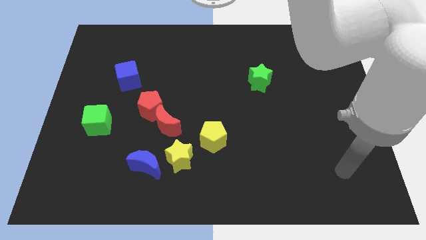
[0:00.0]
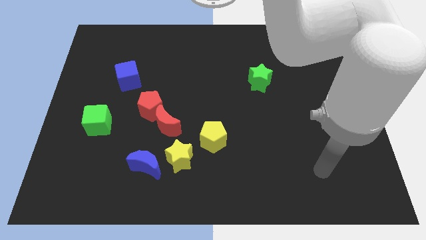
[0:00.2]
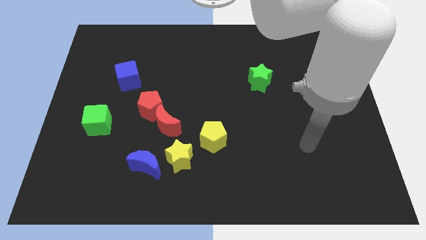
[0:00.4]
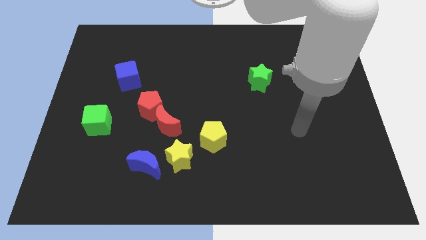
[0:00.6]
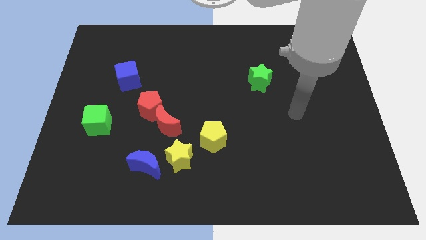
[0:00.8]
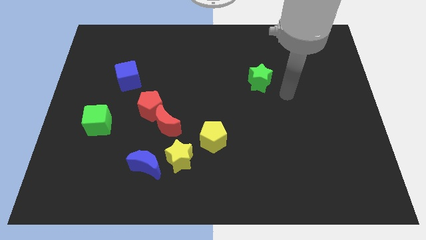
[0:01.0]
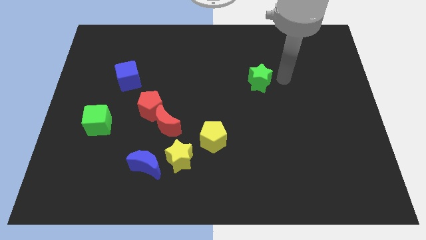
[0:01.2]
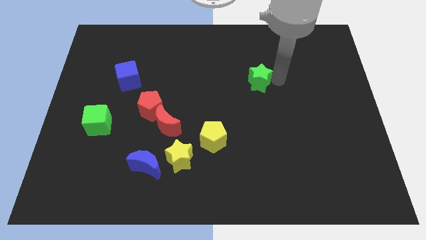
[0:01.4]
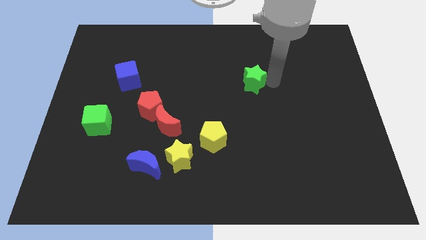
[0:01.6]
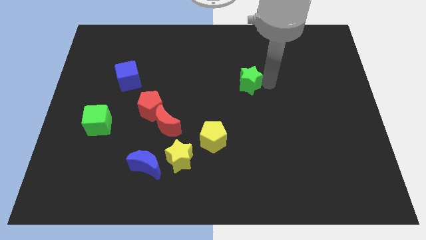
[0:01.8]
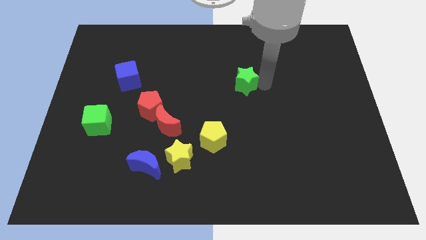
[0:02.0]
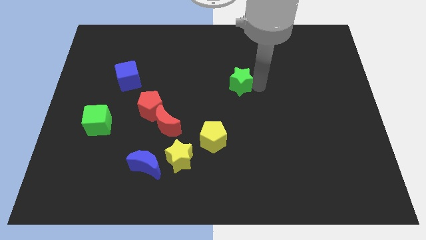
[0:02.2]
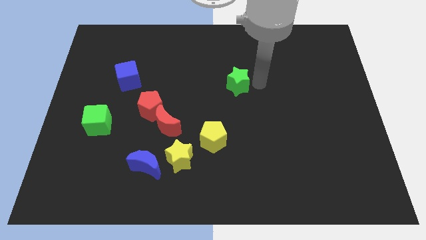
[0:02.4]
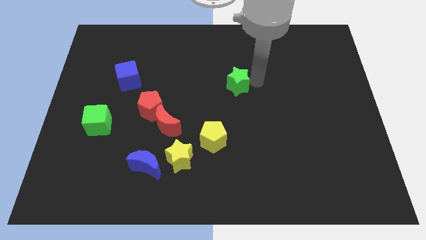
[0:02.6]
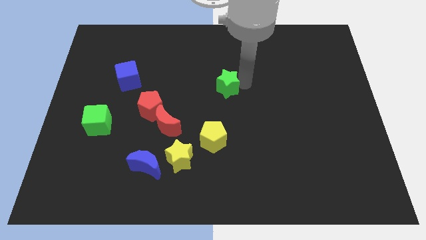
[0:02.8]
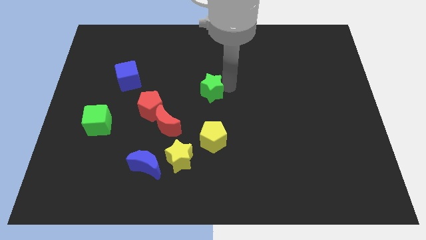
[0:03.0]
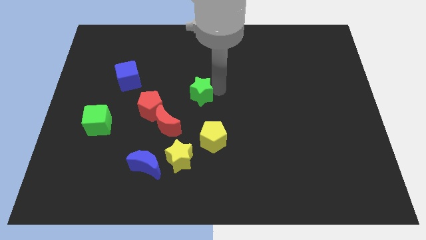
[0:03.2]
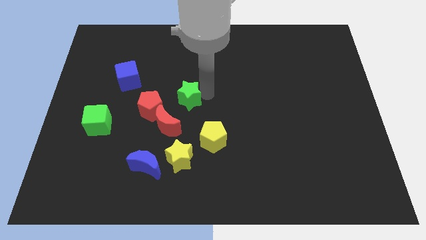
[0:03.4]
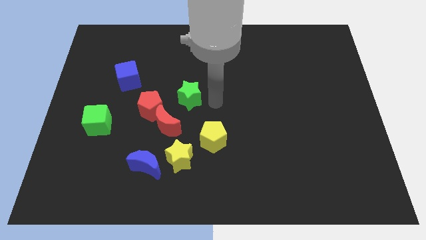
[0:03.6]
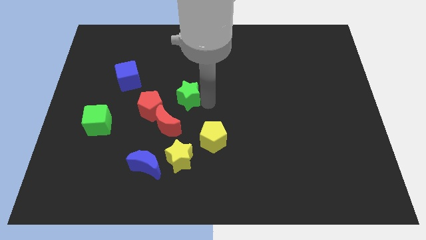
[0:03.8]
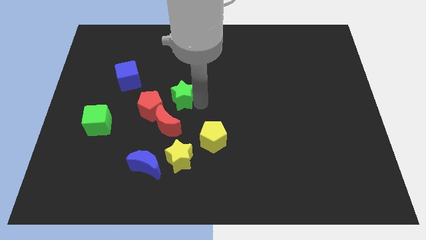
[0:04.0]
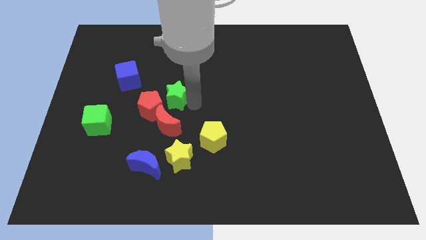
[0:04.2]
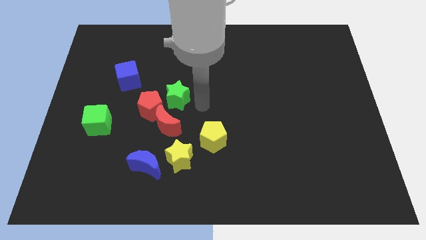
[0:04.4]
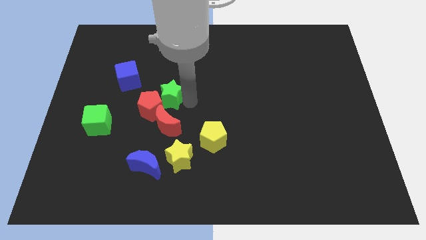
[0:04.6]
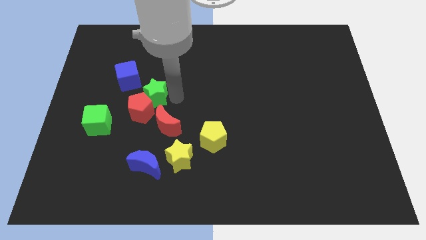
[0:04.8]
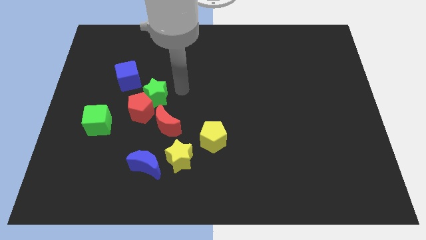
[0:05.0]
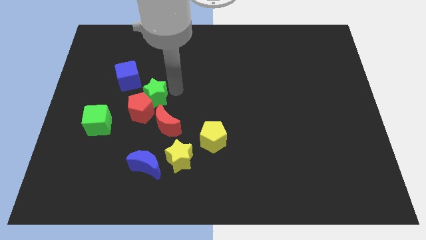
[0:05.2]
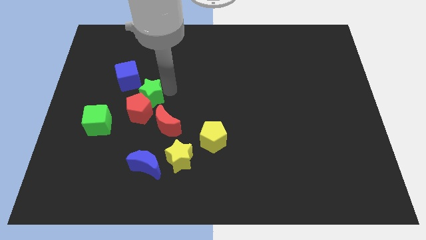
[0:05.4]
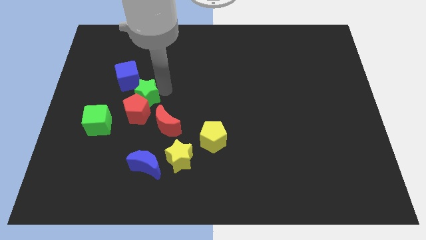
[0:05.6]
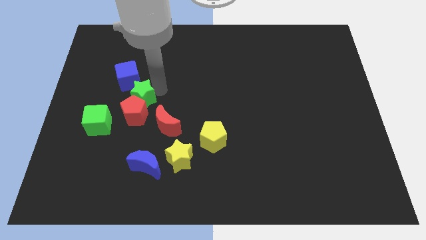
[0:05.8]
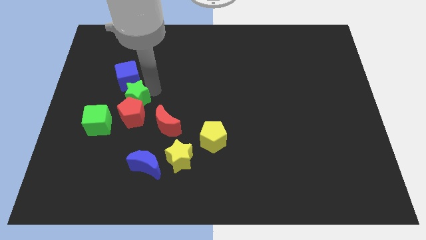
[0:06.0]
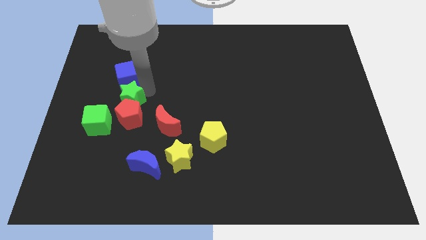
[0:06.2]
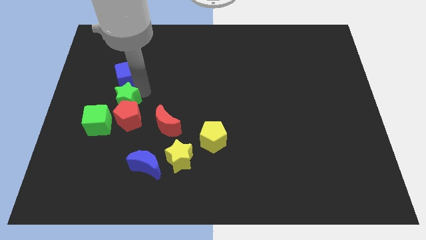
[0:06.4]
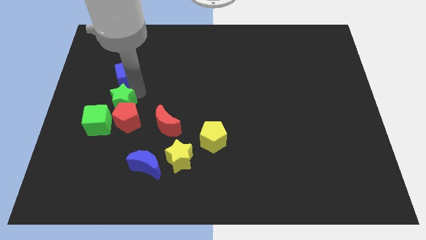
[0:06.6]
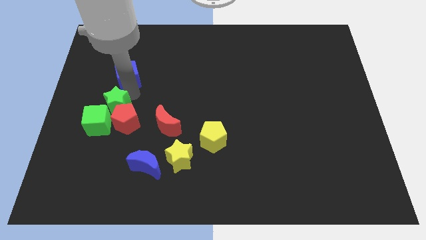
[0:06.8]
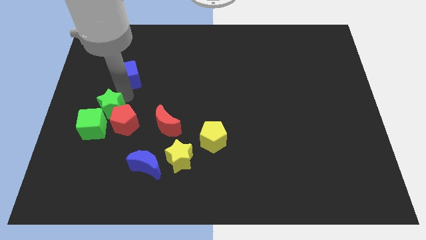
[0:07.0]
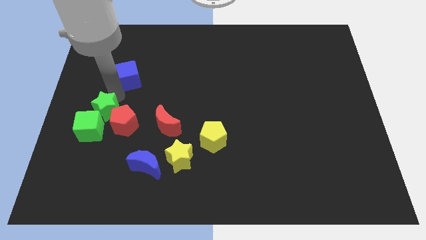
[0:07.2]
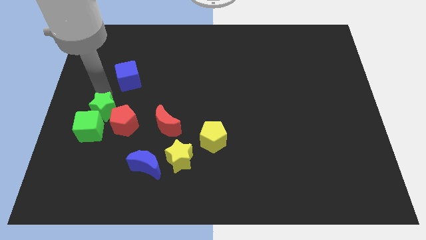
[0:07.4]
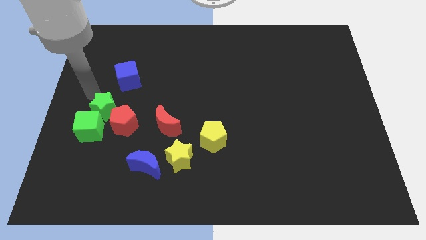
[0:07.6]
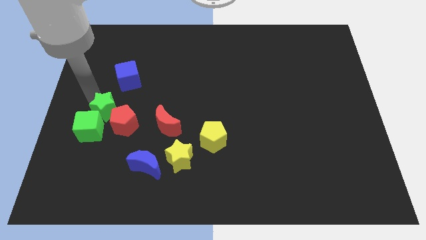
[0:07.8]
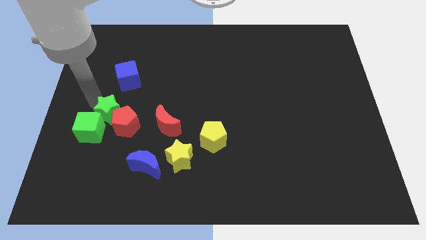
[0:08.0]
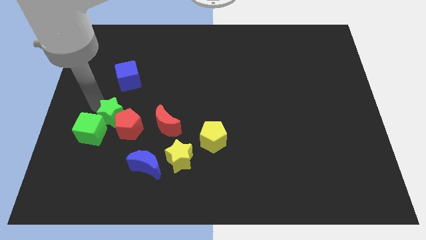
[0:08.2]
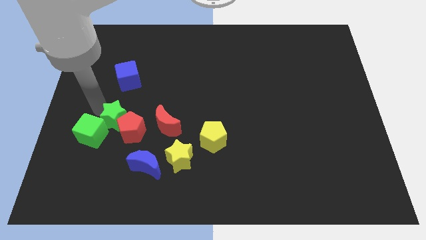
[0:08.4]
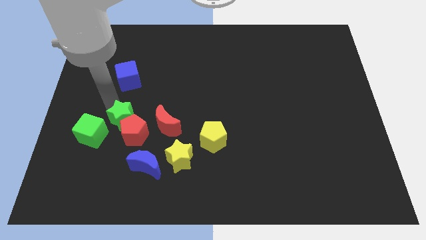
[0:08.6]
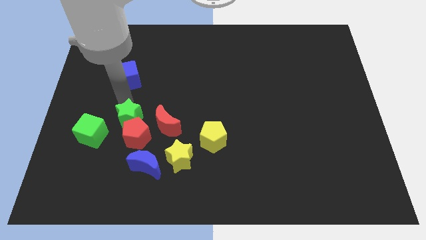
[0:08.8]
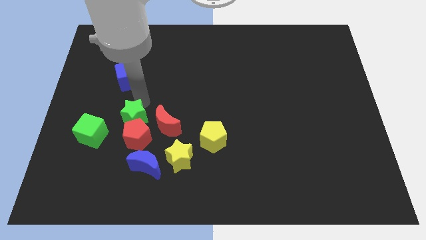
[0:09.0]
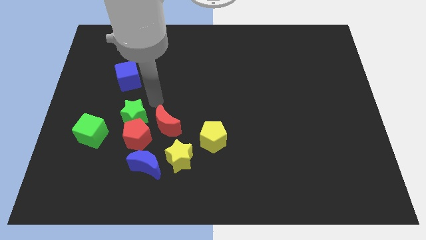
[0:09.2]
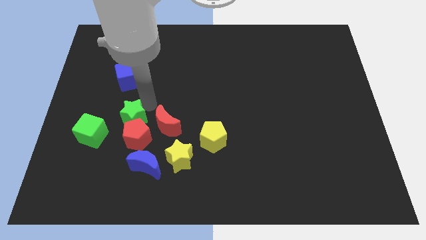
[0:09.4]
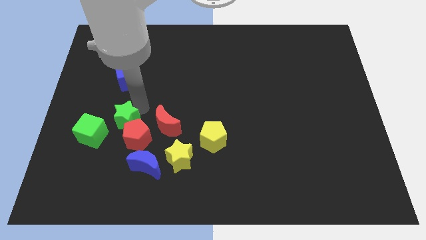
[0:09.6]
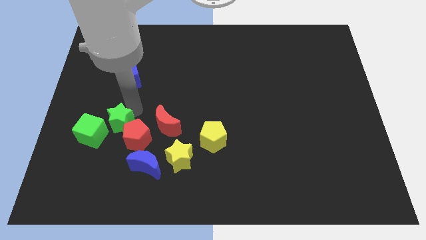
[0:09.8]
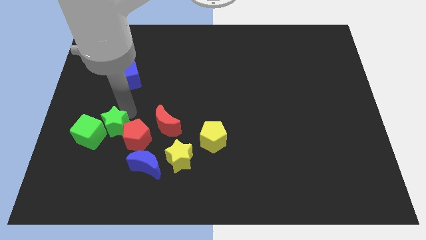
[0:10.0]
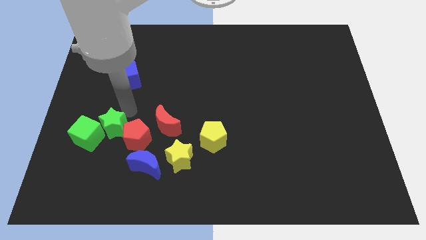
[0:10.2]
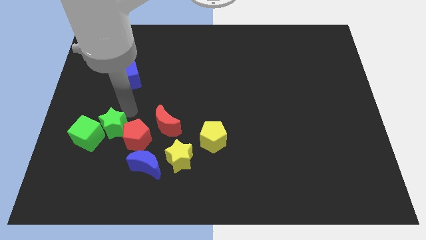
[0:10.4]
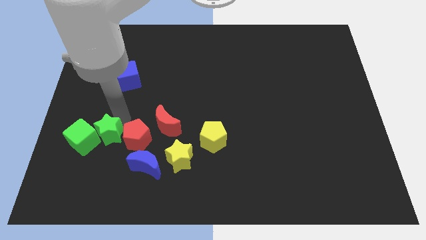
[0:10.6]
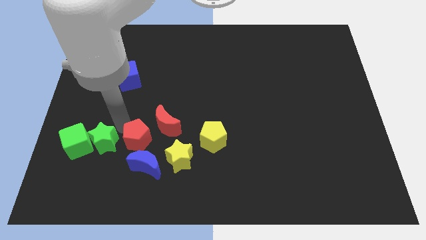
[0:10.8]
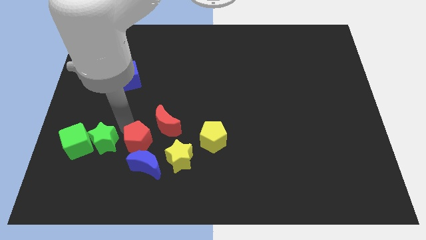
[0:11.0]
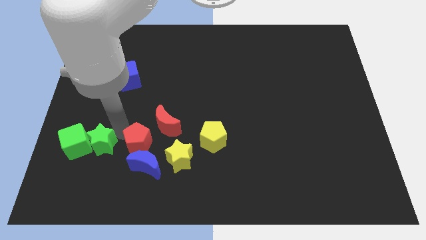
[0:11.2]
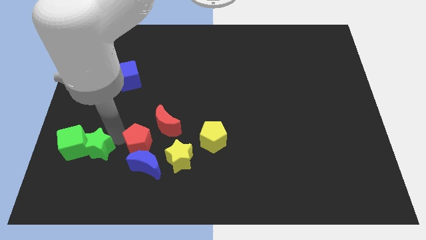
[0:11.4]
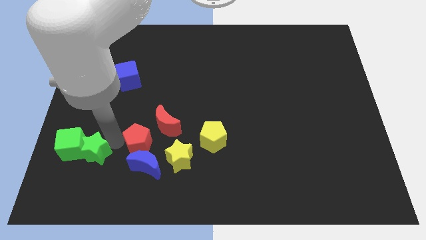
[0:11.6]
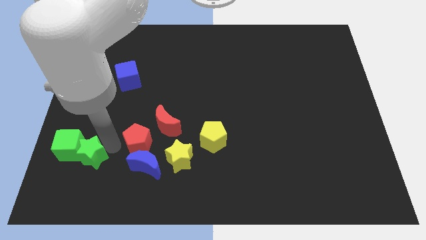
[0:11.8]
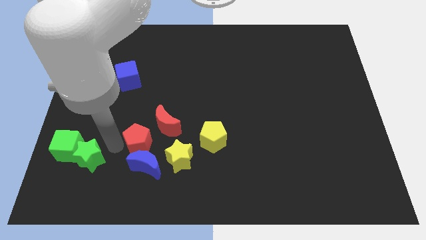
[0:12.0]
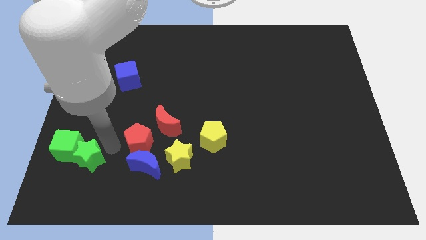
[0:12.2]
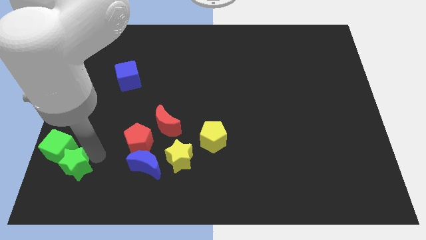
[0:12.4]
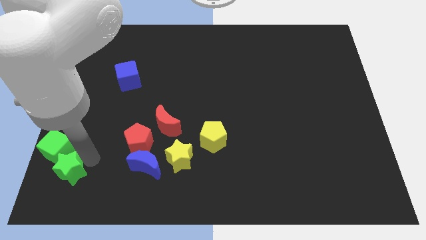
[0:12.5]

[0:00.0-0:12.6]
push the green star to the lower left corner
